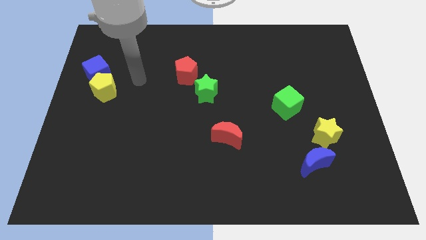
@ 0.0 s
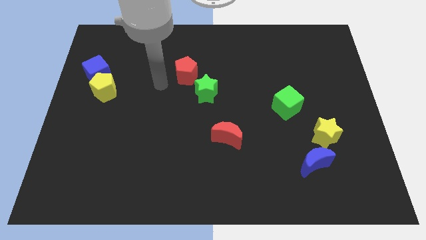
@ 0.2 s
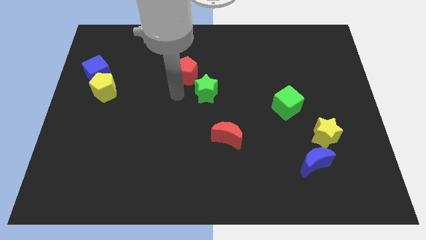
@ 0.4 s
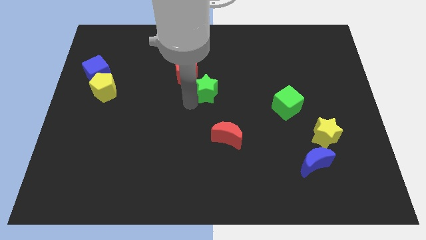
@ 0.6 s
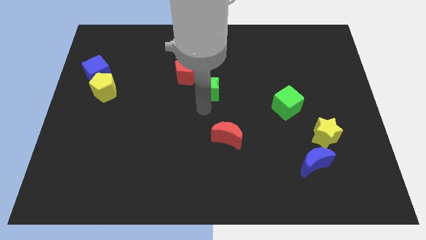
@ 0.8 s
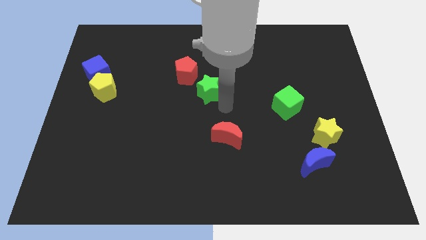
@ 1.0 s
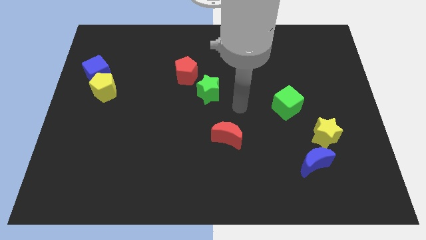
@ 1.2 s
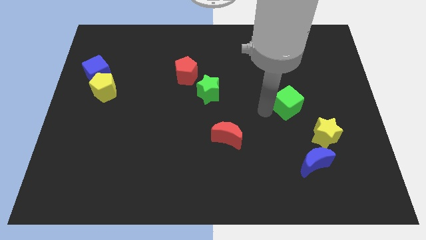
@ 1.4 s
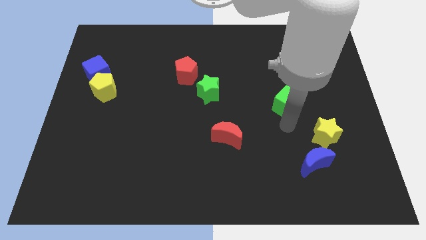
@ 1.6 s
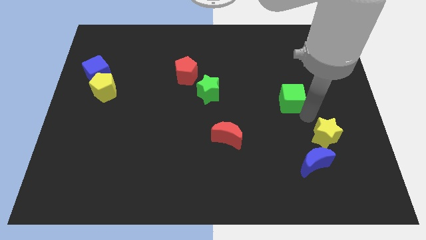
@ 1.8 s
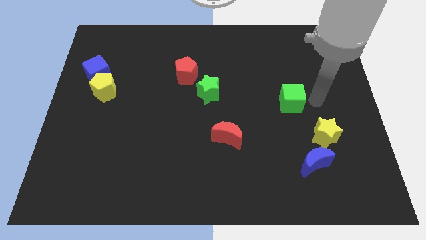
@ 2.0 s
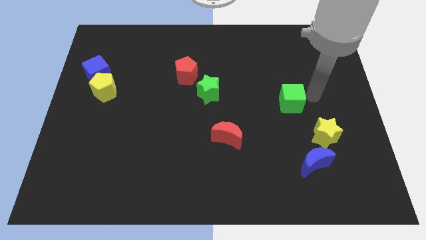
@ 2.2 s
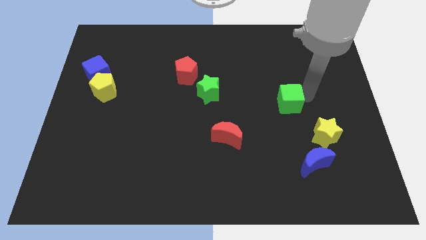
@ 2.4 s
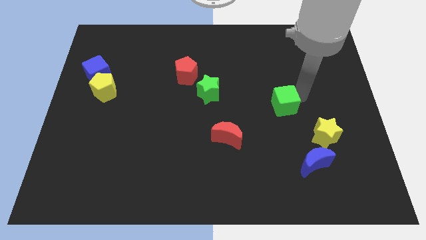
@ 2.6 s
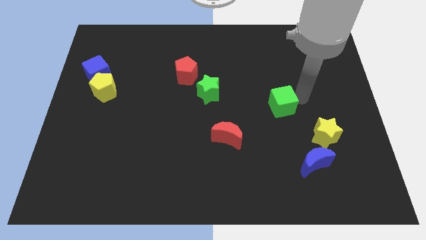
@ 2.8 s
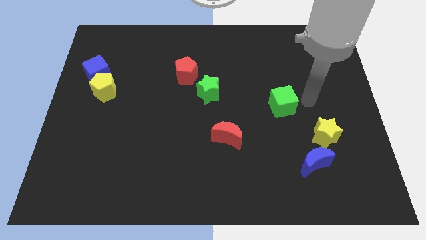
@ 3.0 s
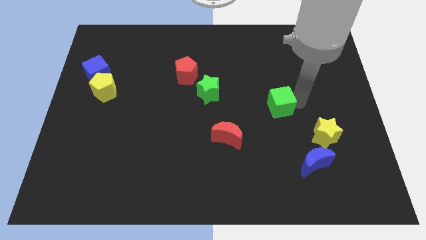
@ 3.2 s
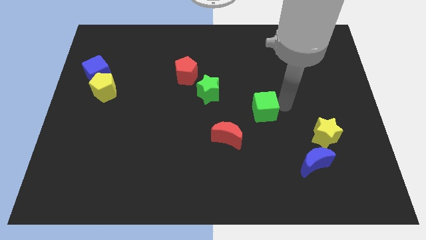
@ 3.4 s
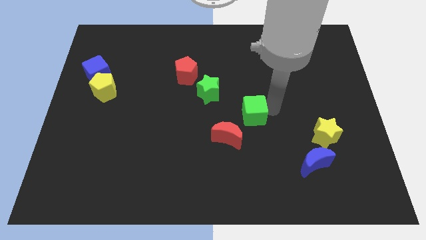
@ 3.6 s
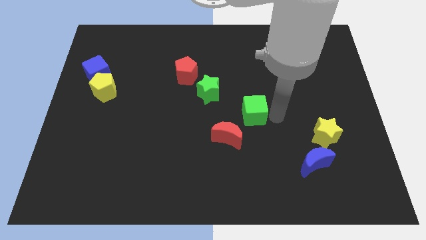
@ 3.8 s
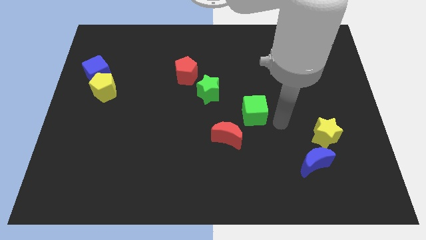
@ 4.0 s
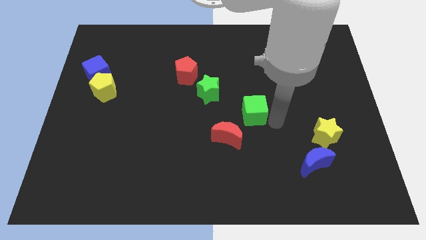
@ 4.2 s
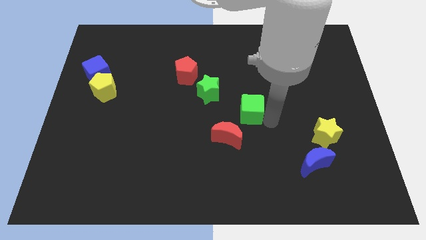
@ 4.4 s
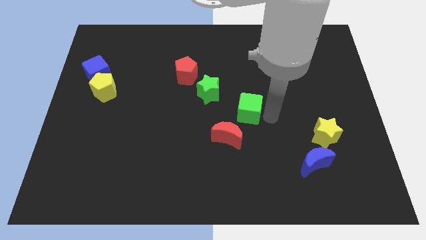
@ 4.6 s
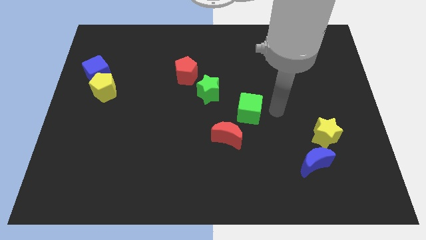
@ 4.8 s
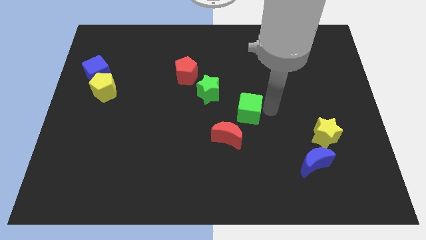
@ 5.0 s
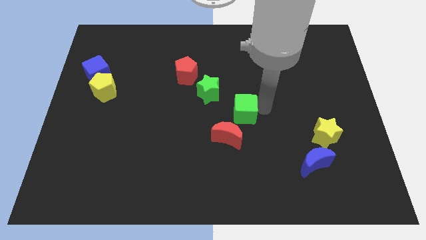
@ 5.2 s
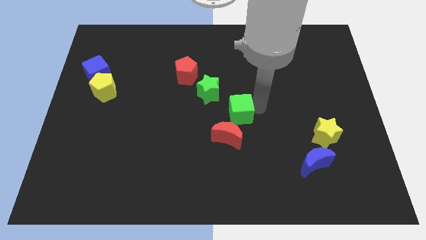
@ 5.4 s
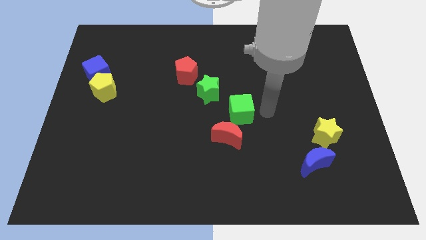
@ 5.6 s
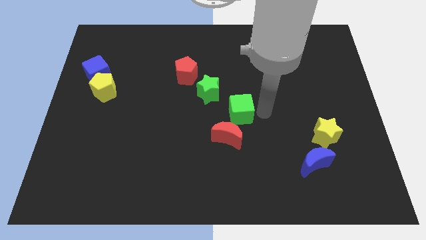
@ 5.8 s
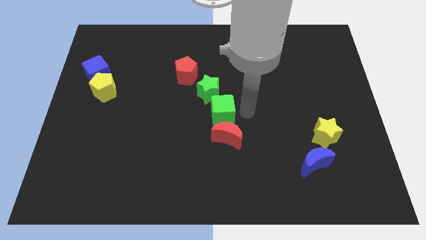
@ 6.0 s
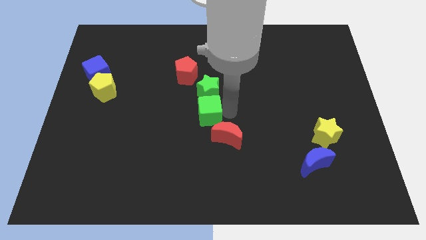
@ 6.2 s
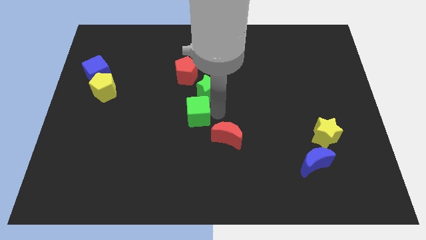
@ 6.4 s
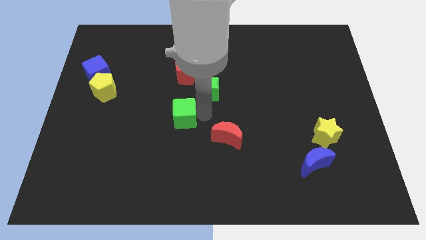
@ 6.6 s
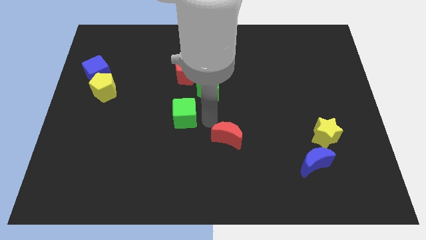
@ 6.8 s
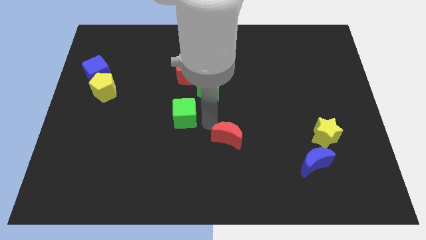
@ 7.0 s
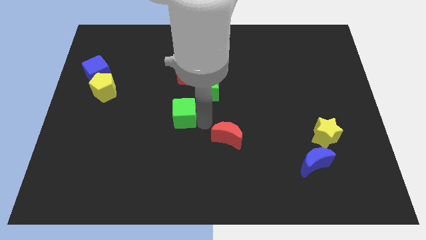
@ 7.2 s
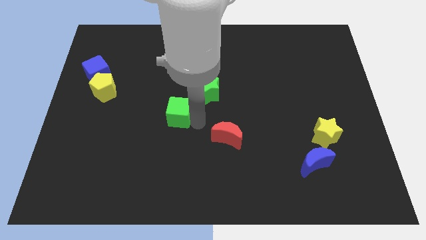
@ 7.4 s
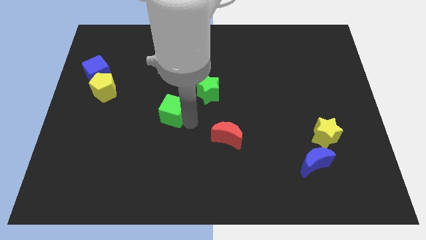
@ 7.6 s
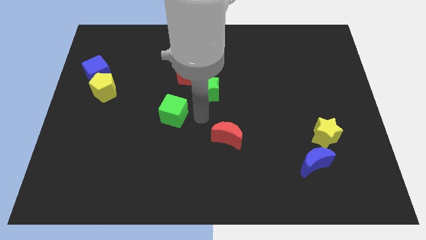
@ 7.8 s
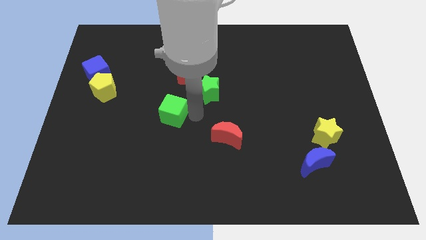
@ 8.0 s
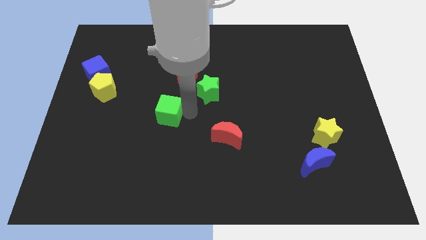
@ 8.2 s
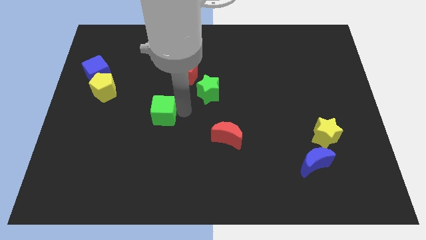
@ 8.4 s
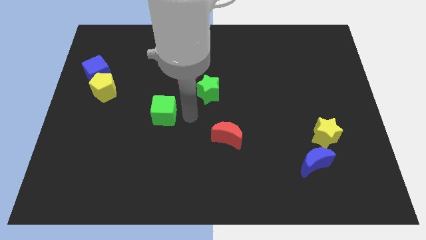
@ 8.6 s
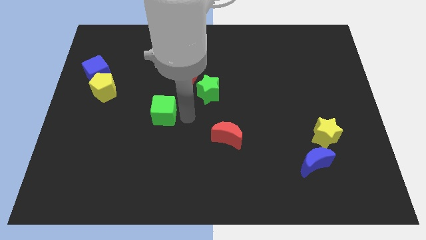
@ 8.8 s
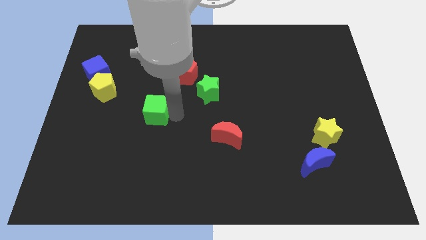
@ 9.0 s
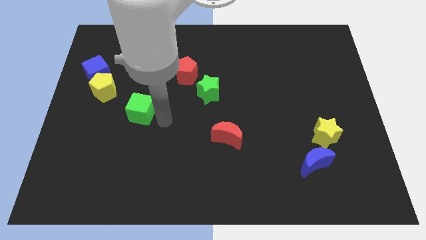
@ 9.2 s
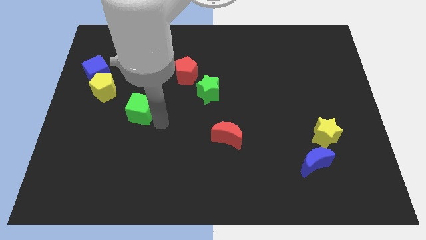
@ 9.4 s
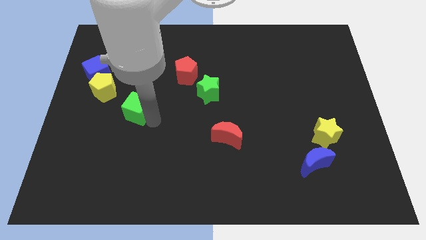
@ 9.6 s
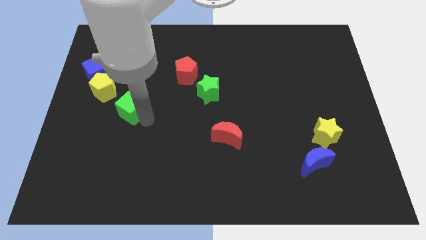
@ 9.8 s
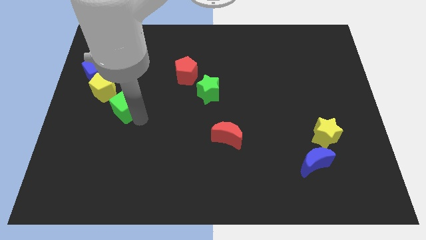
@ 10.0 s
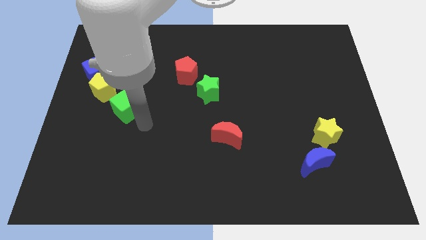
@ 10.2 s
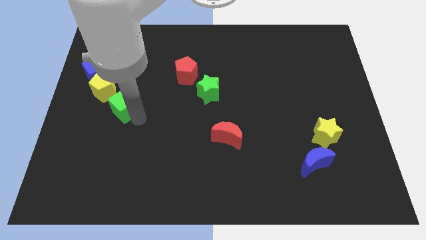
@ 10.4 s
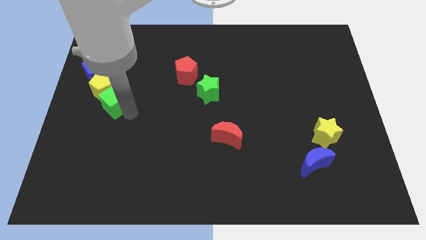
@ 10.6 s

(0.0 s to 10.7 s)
move the green cube next to the yellow pentagon

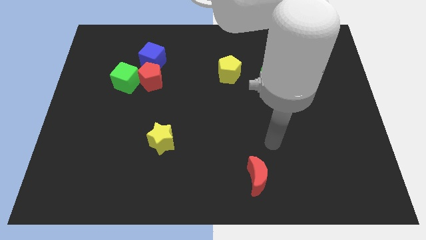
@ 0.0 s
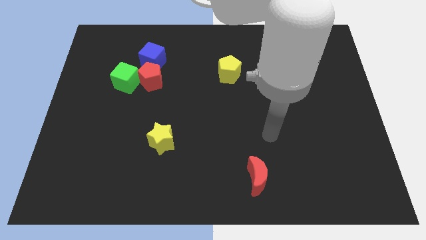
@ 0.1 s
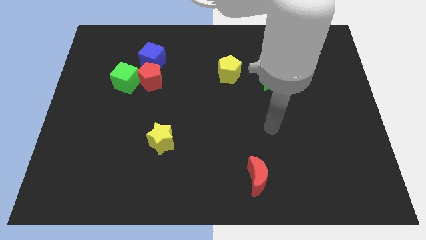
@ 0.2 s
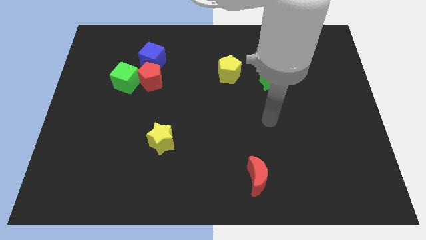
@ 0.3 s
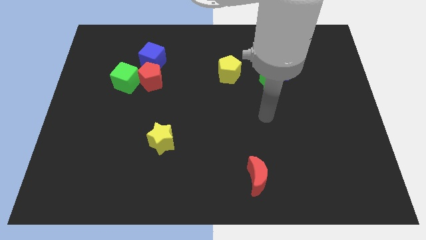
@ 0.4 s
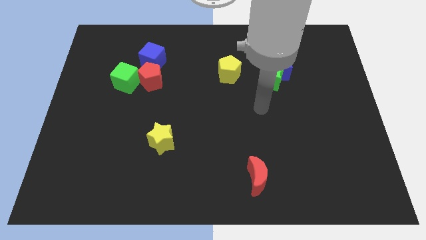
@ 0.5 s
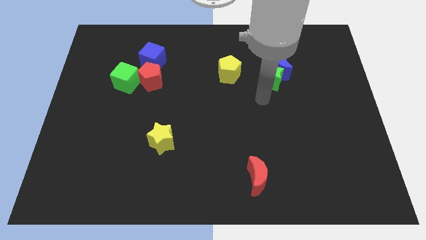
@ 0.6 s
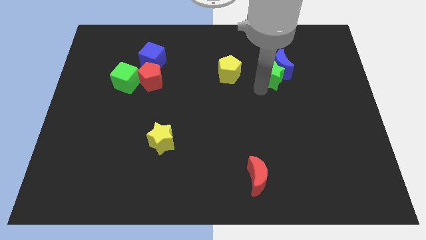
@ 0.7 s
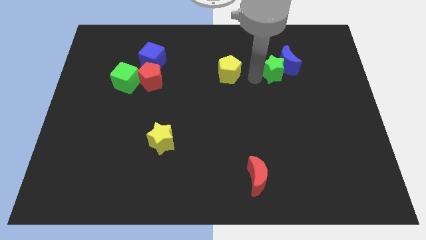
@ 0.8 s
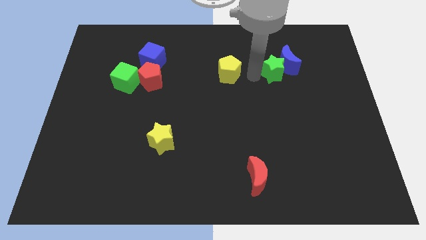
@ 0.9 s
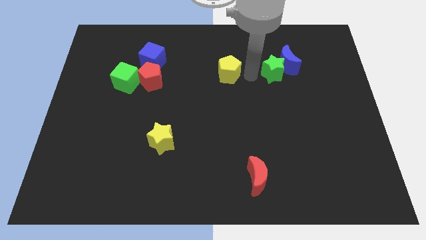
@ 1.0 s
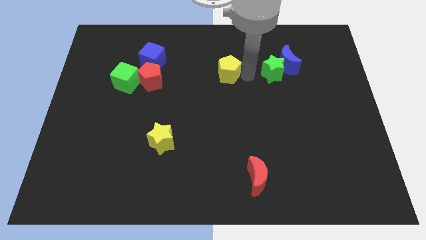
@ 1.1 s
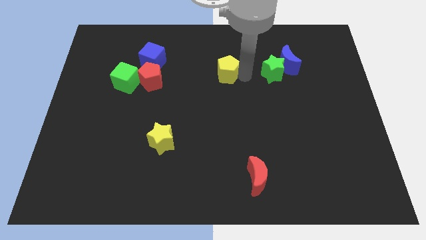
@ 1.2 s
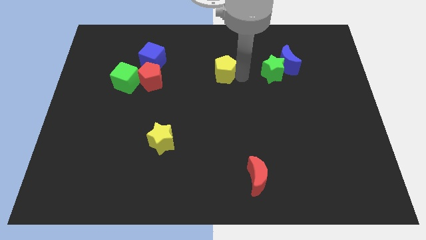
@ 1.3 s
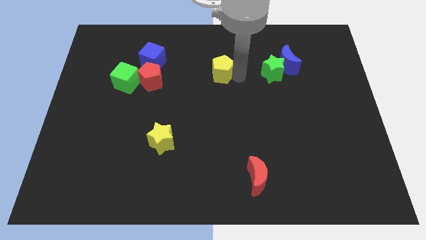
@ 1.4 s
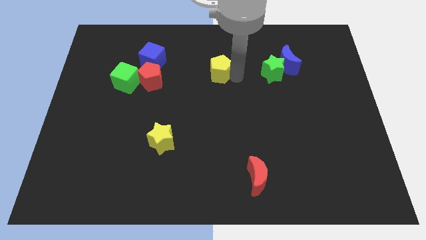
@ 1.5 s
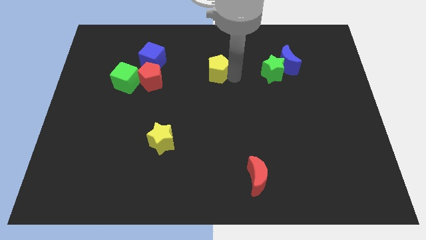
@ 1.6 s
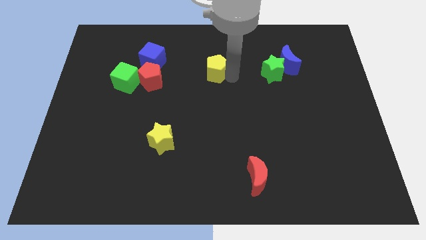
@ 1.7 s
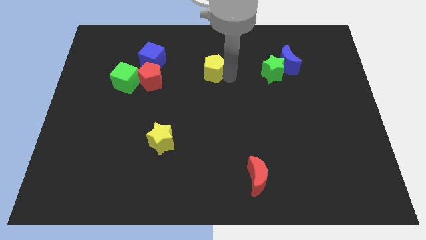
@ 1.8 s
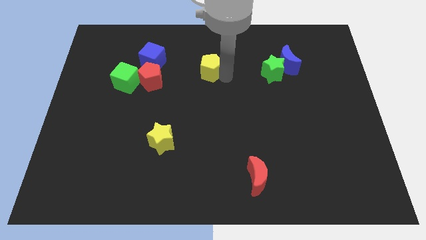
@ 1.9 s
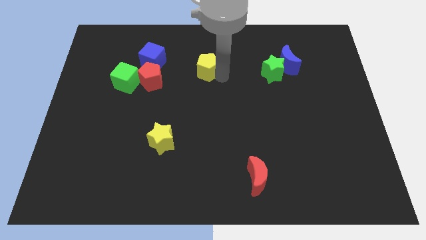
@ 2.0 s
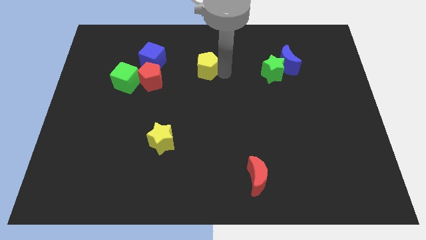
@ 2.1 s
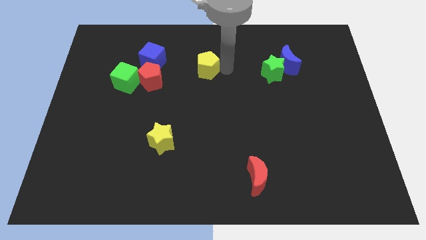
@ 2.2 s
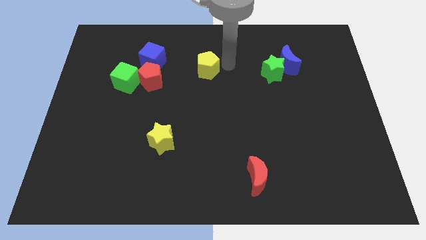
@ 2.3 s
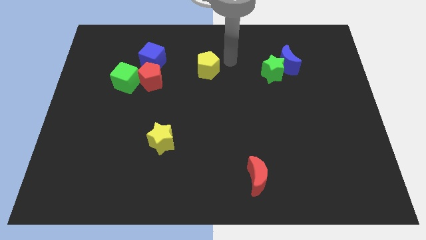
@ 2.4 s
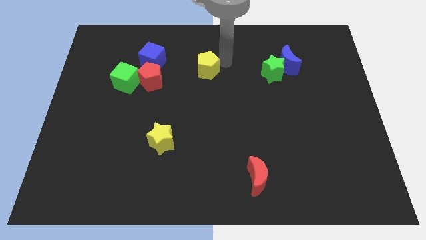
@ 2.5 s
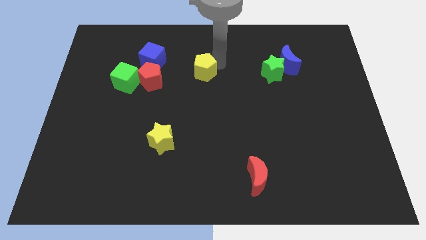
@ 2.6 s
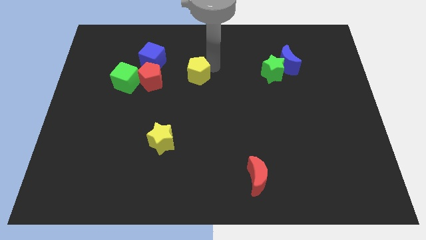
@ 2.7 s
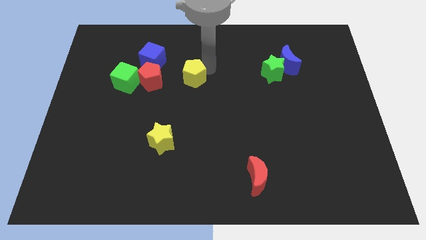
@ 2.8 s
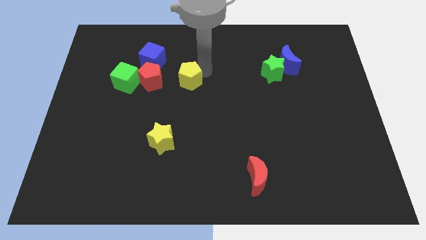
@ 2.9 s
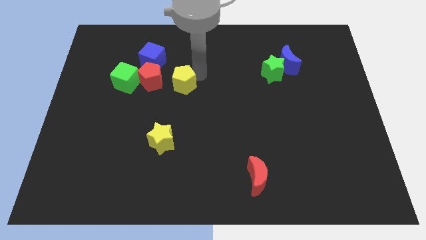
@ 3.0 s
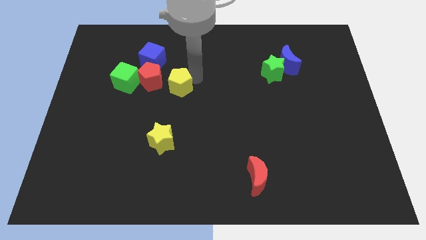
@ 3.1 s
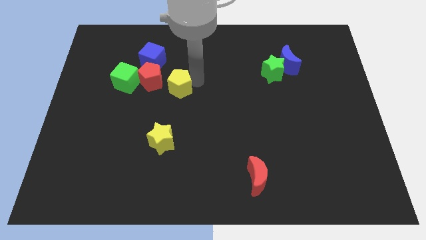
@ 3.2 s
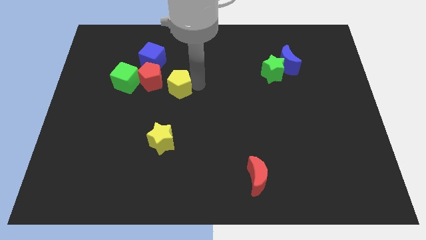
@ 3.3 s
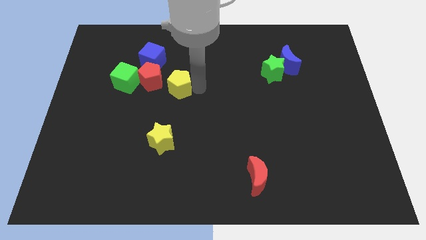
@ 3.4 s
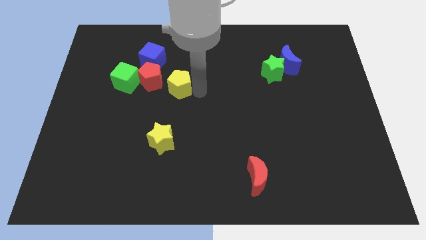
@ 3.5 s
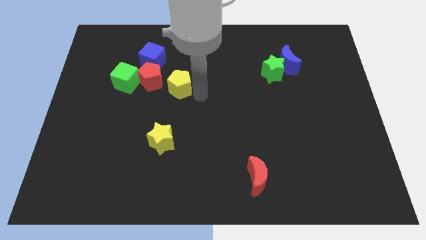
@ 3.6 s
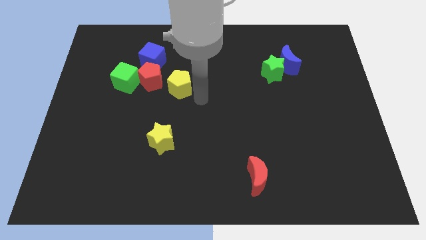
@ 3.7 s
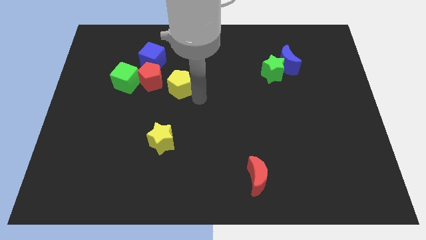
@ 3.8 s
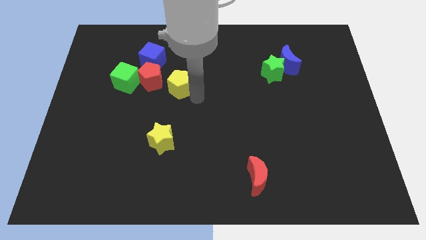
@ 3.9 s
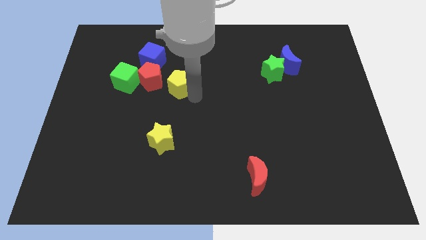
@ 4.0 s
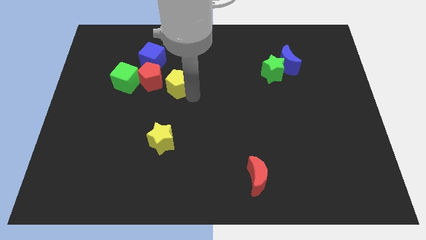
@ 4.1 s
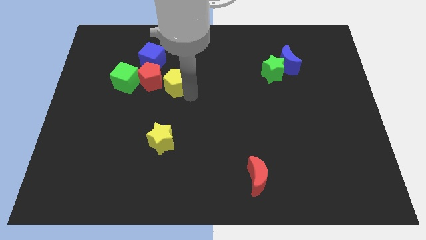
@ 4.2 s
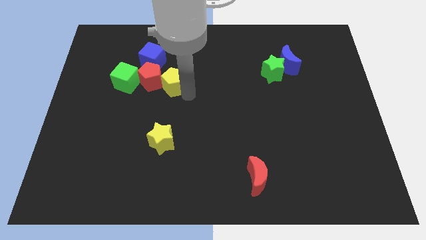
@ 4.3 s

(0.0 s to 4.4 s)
put the yellow pentagon next to the red pentagon
